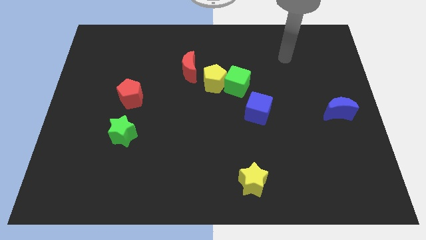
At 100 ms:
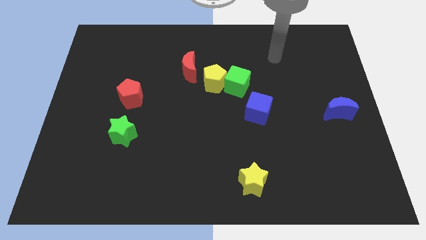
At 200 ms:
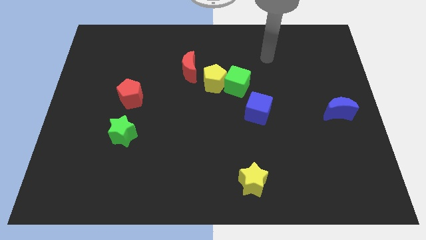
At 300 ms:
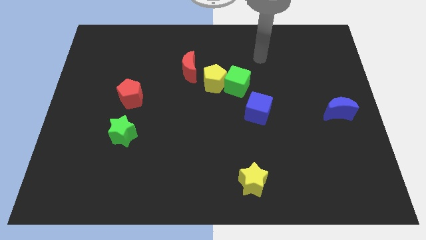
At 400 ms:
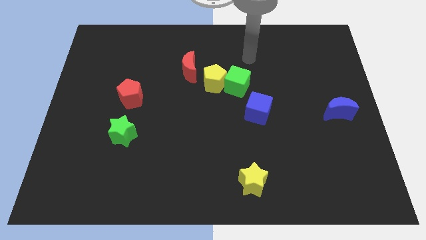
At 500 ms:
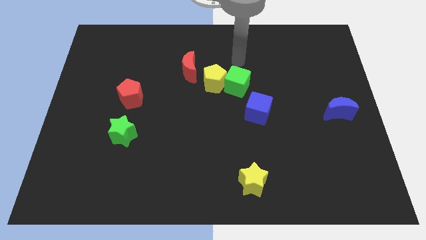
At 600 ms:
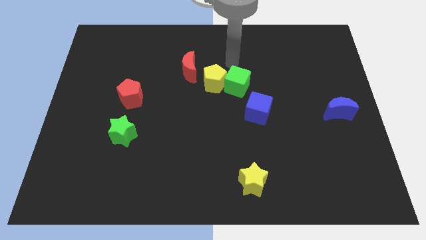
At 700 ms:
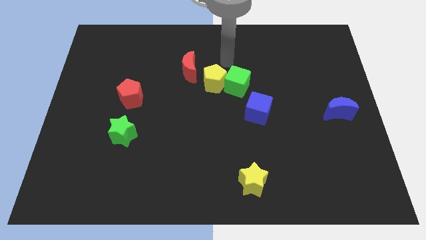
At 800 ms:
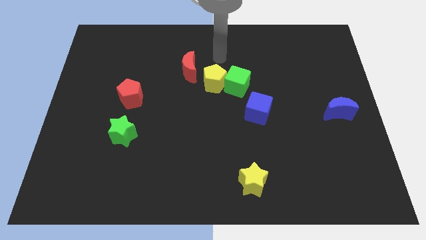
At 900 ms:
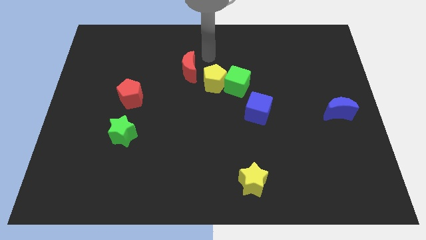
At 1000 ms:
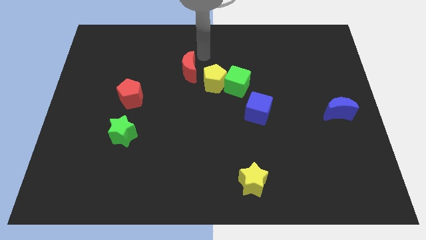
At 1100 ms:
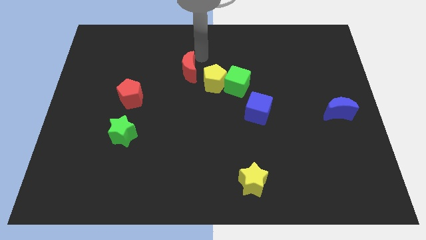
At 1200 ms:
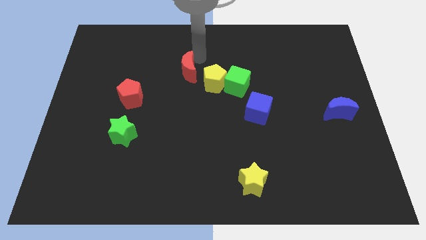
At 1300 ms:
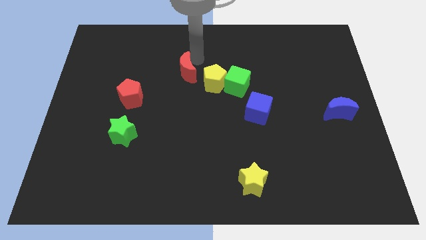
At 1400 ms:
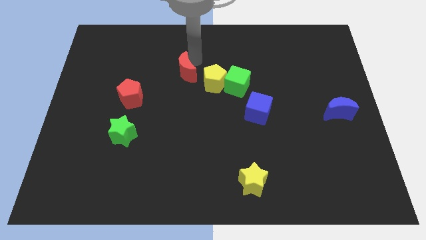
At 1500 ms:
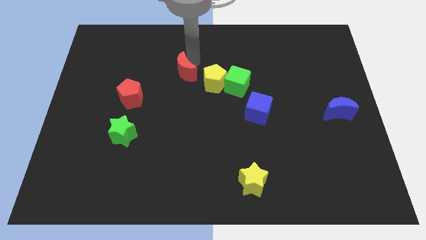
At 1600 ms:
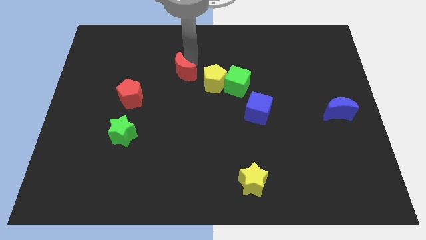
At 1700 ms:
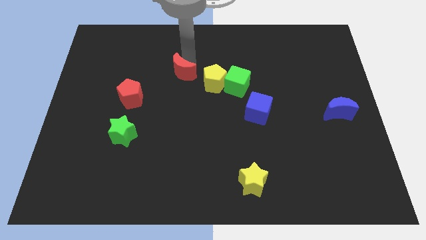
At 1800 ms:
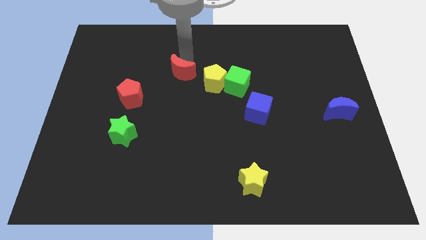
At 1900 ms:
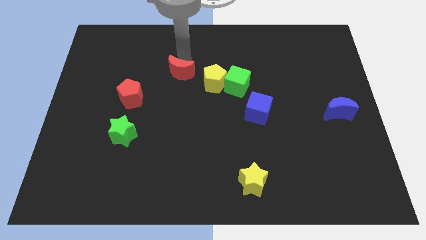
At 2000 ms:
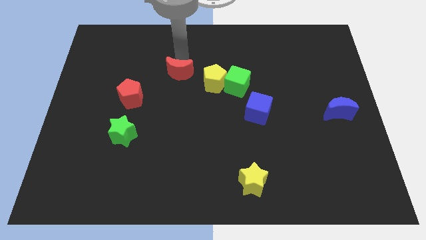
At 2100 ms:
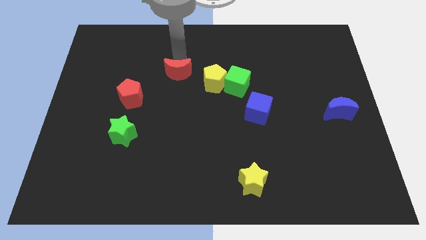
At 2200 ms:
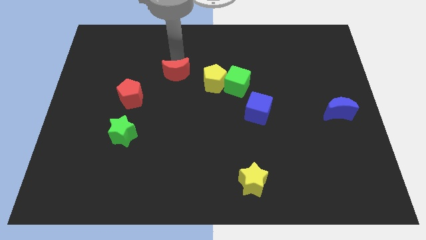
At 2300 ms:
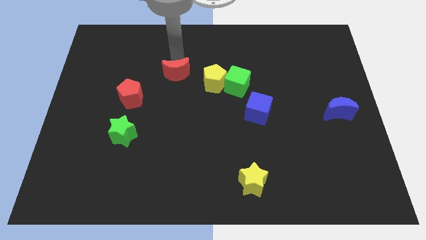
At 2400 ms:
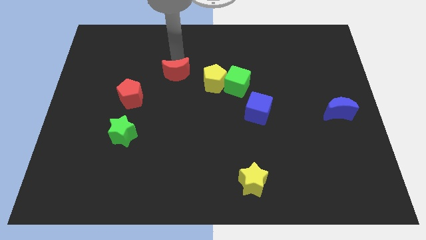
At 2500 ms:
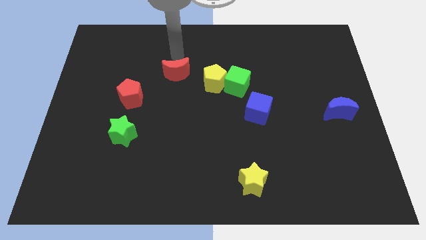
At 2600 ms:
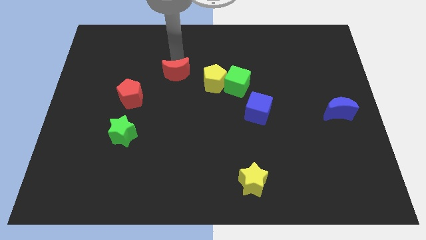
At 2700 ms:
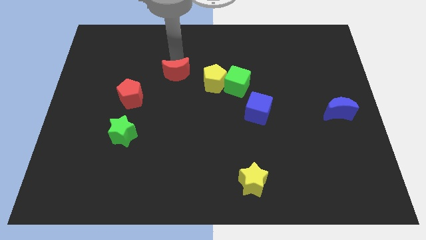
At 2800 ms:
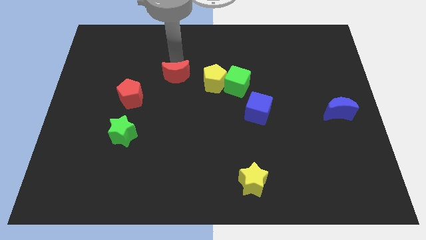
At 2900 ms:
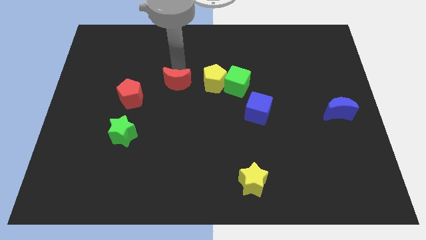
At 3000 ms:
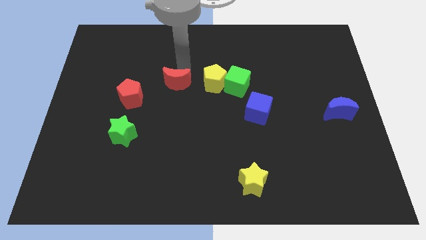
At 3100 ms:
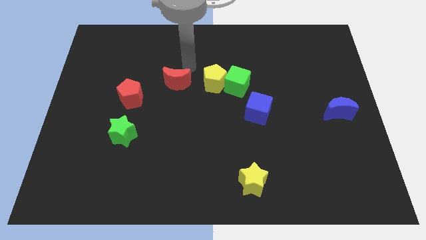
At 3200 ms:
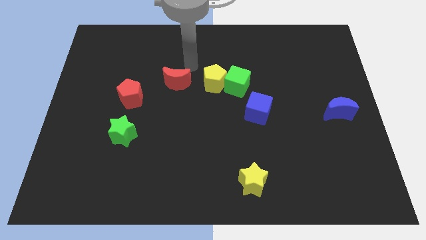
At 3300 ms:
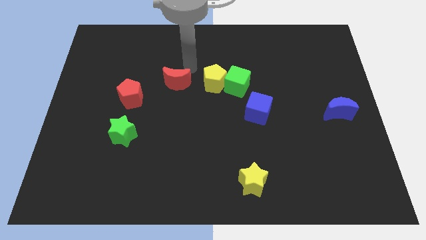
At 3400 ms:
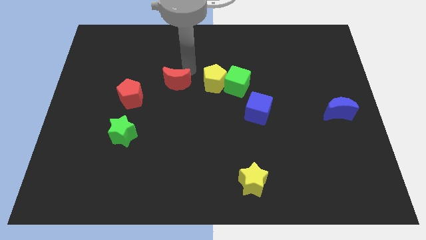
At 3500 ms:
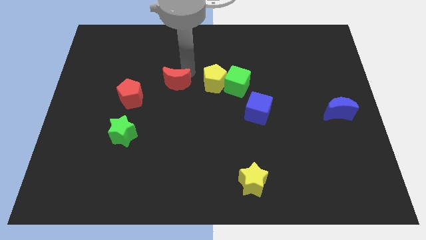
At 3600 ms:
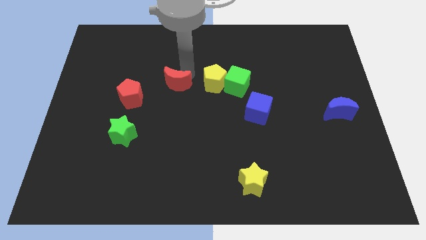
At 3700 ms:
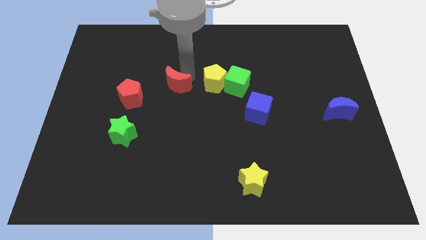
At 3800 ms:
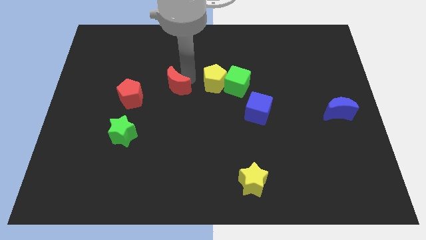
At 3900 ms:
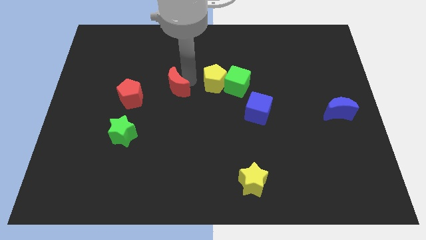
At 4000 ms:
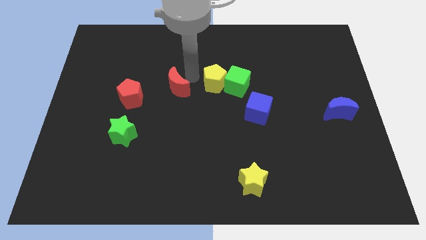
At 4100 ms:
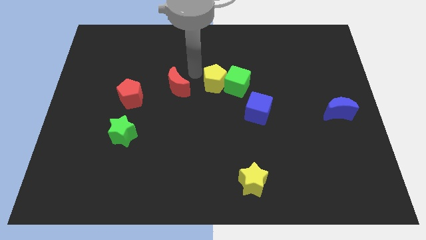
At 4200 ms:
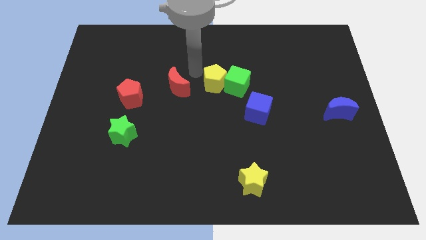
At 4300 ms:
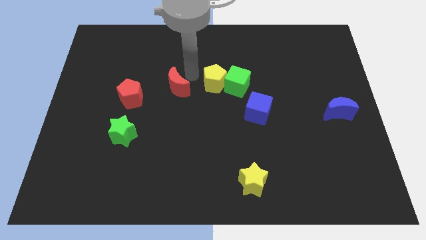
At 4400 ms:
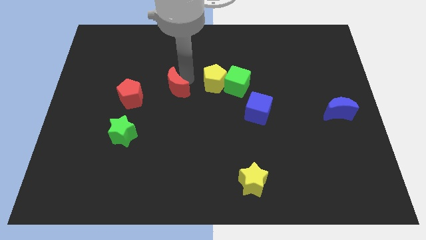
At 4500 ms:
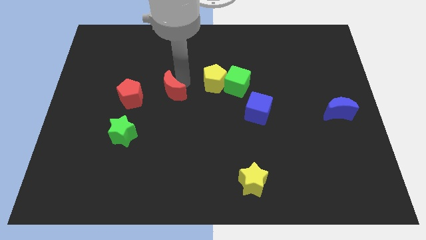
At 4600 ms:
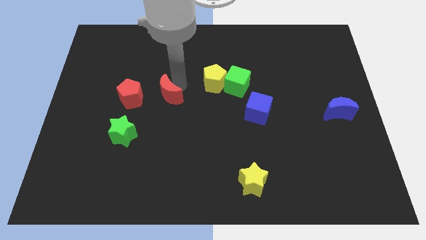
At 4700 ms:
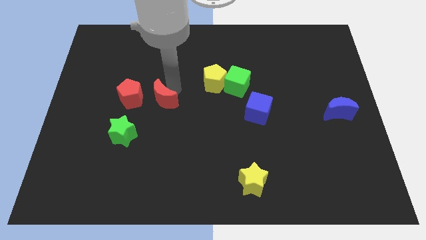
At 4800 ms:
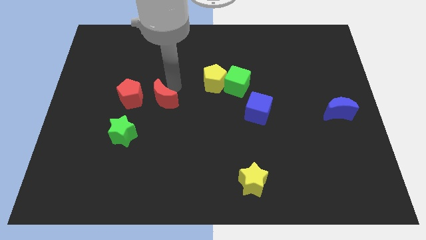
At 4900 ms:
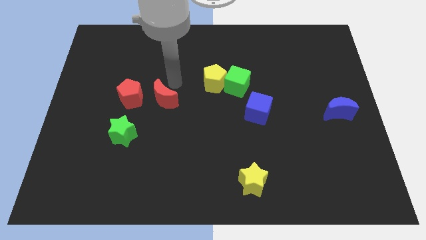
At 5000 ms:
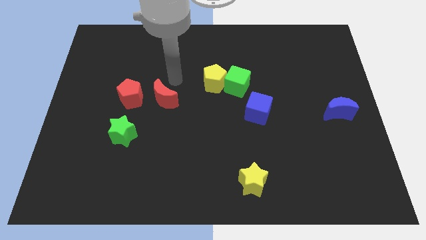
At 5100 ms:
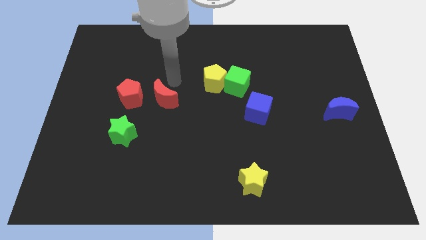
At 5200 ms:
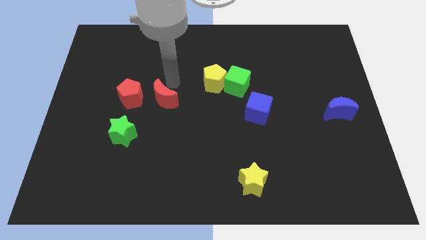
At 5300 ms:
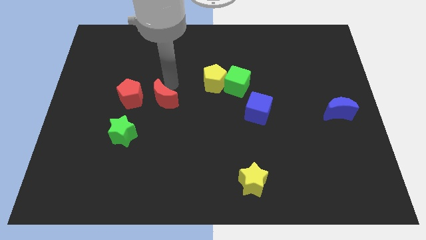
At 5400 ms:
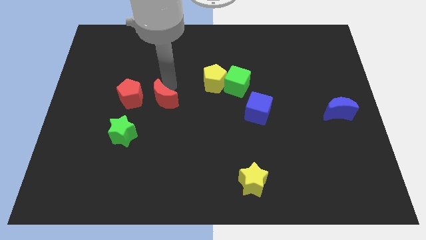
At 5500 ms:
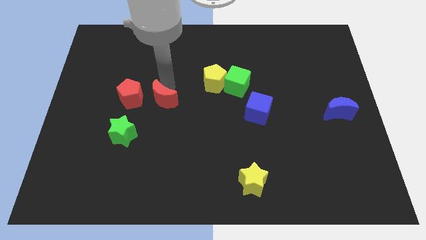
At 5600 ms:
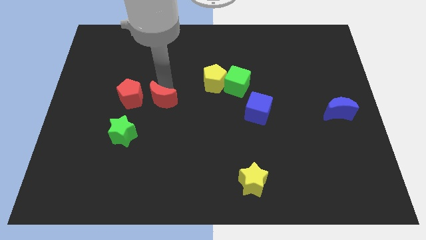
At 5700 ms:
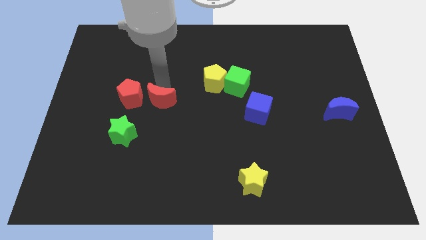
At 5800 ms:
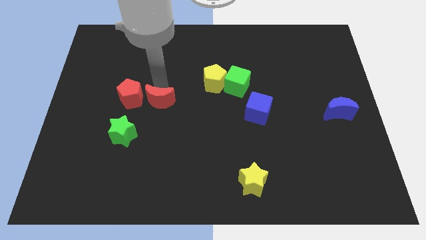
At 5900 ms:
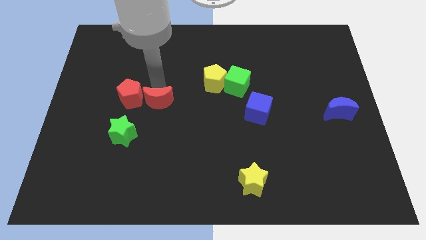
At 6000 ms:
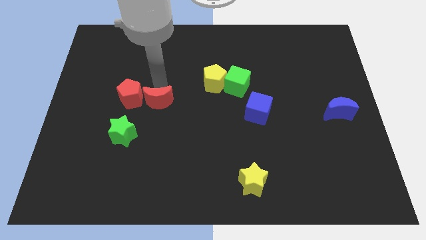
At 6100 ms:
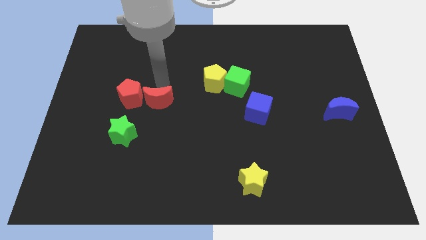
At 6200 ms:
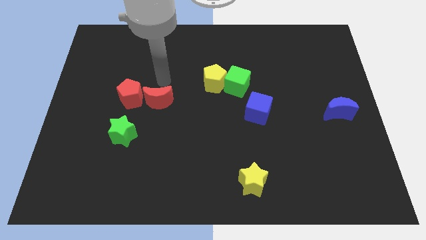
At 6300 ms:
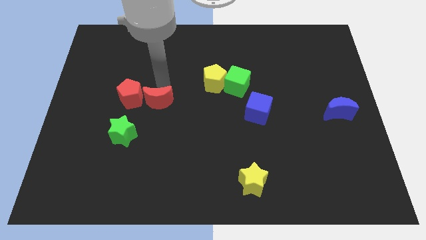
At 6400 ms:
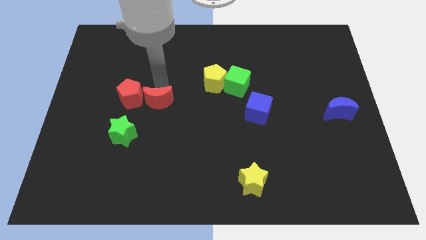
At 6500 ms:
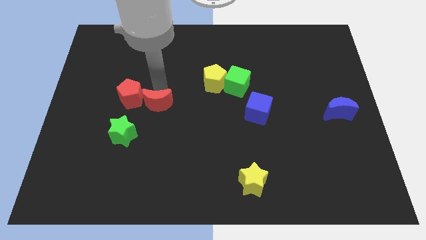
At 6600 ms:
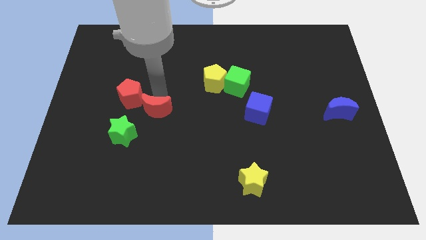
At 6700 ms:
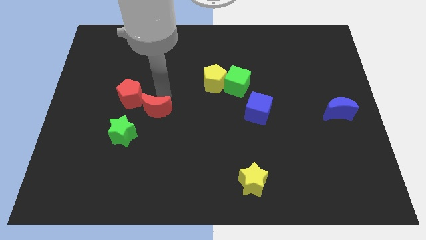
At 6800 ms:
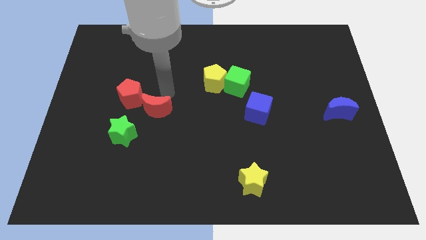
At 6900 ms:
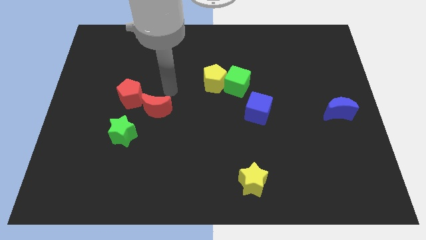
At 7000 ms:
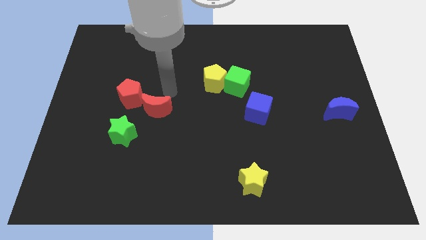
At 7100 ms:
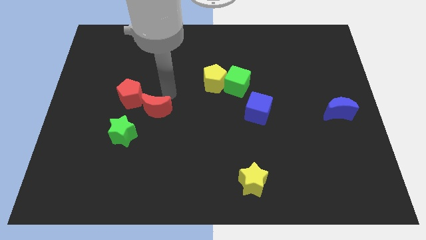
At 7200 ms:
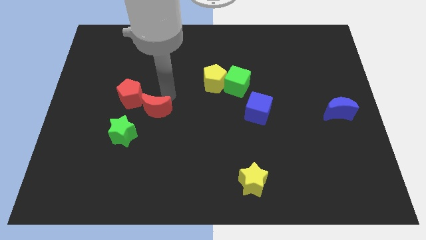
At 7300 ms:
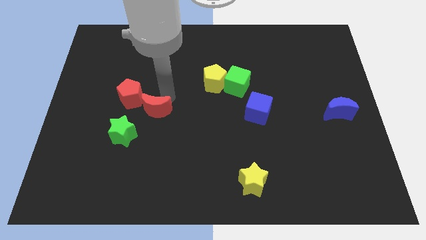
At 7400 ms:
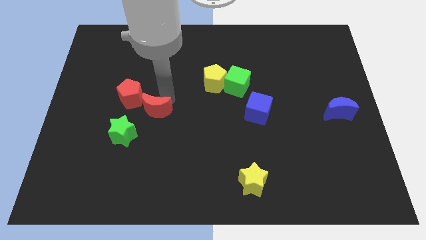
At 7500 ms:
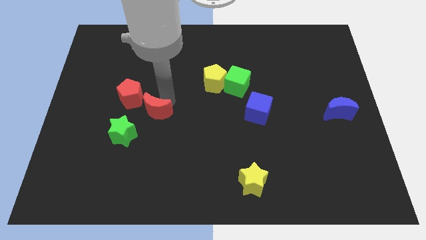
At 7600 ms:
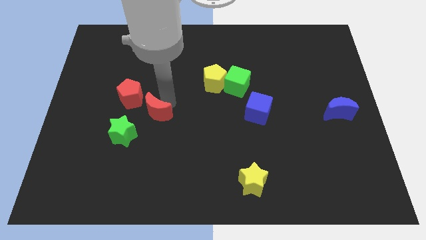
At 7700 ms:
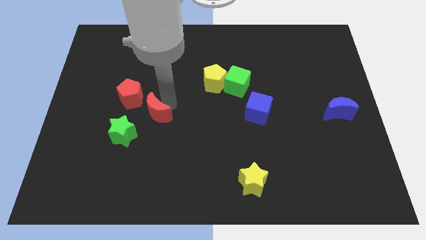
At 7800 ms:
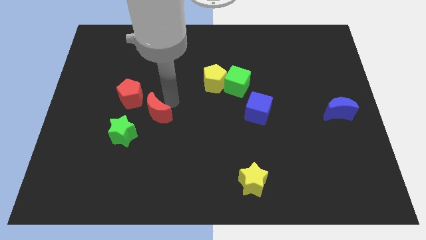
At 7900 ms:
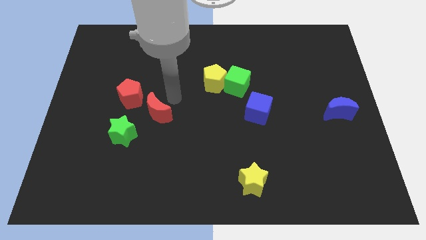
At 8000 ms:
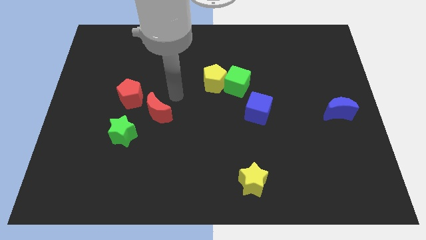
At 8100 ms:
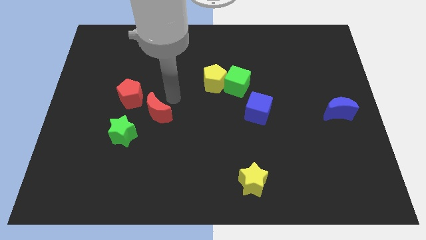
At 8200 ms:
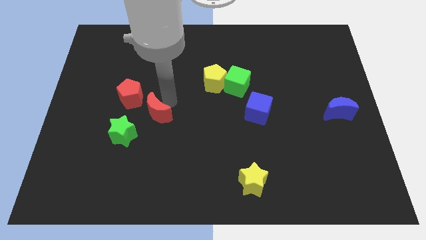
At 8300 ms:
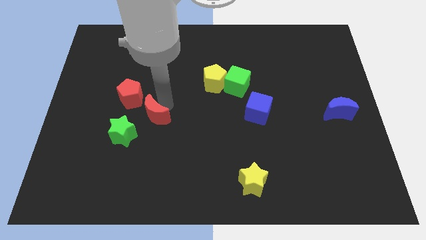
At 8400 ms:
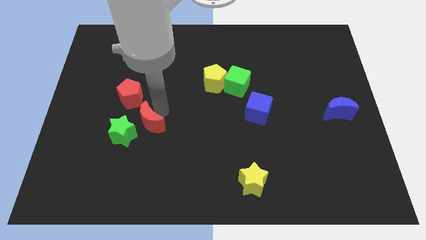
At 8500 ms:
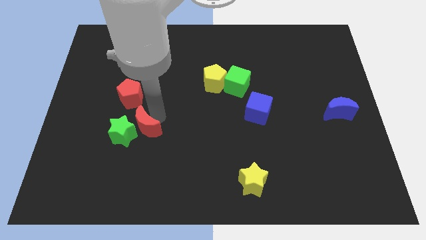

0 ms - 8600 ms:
push the red moon close to the green star
